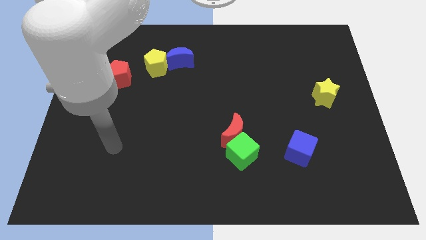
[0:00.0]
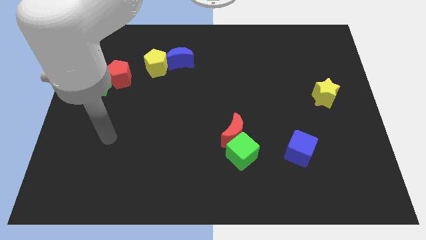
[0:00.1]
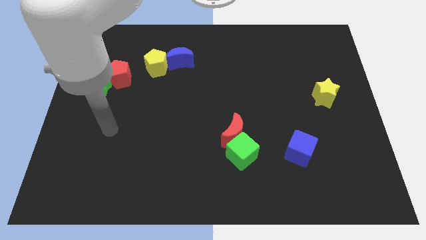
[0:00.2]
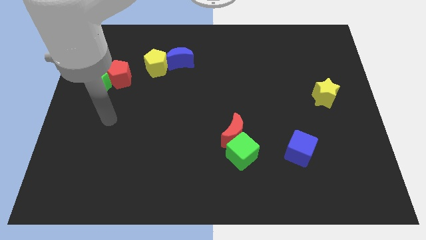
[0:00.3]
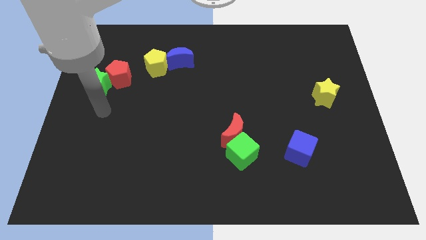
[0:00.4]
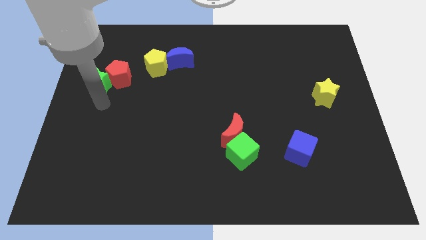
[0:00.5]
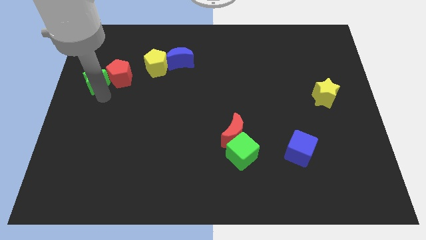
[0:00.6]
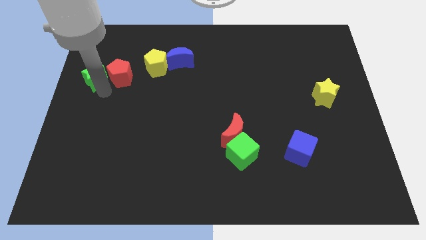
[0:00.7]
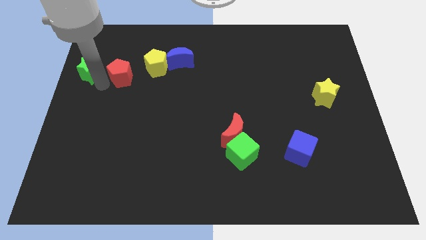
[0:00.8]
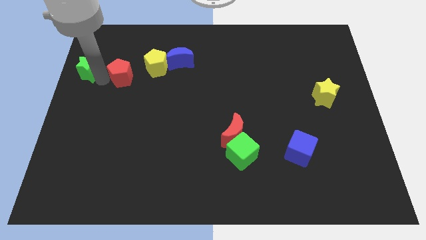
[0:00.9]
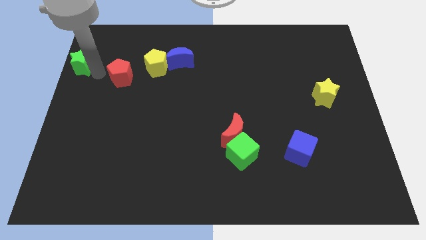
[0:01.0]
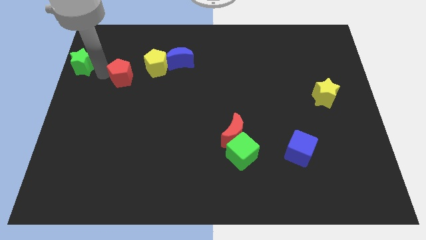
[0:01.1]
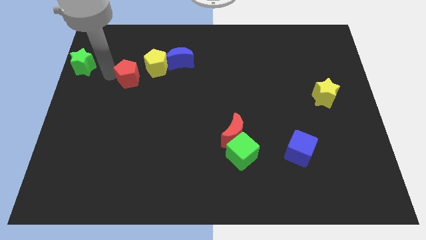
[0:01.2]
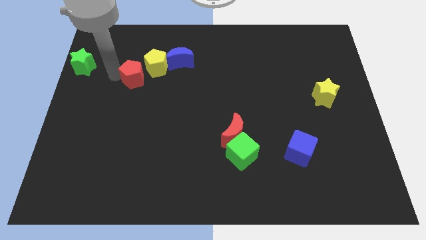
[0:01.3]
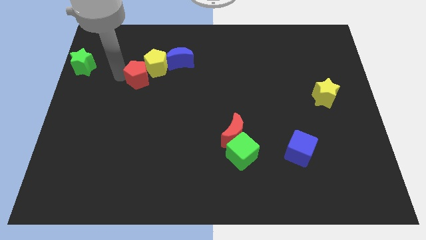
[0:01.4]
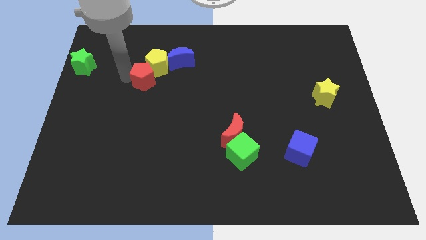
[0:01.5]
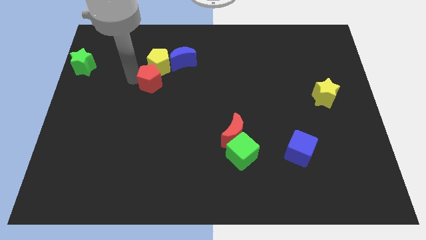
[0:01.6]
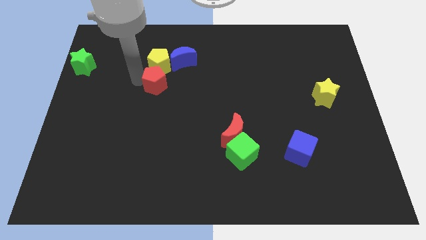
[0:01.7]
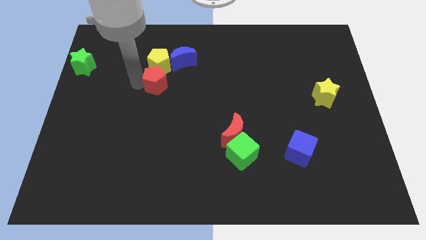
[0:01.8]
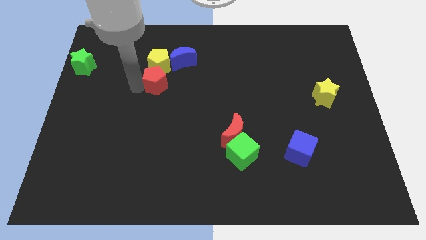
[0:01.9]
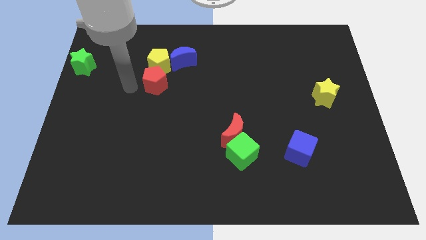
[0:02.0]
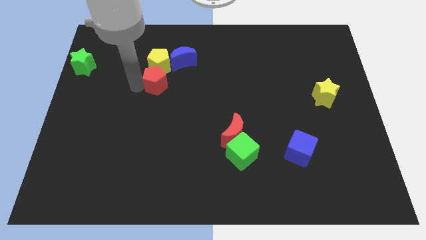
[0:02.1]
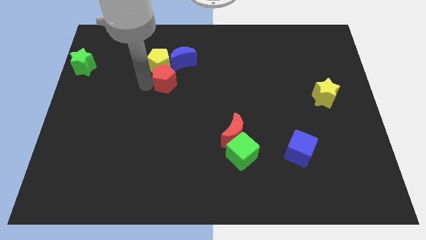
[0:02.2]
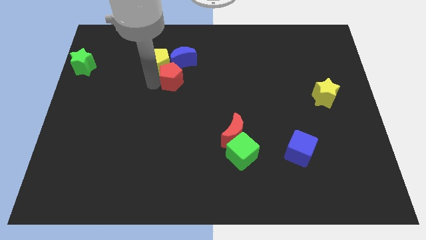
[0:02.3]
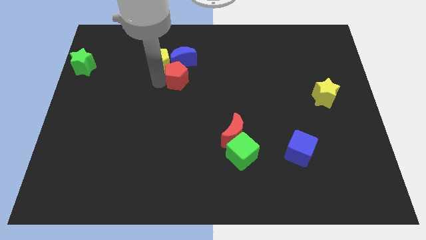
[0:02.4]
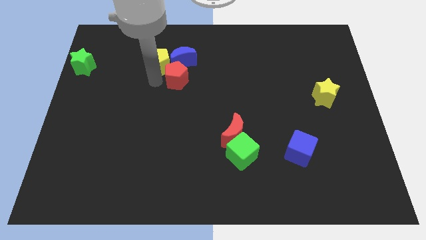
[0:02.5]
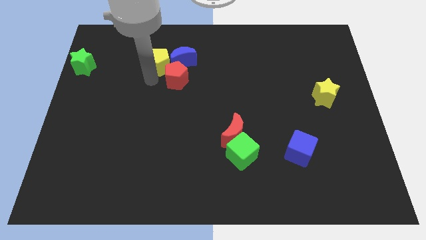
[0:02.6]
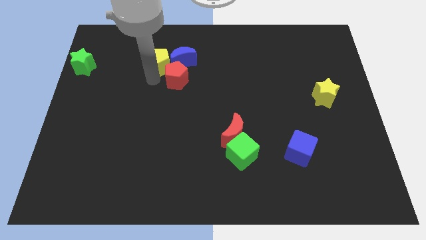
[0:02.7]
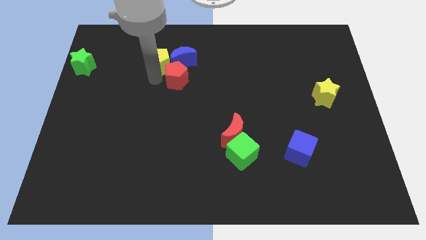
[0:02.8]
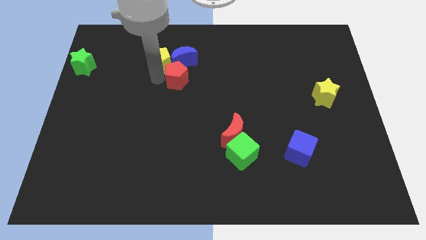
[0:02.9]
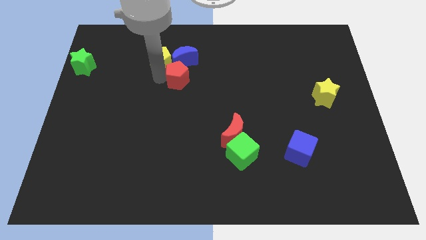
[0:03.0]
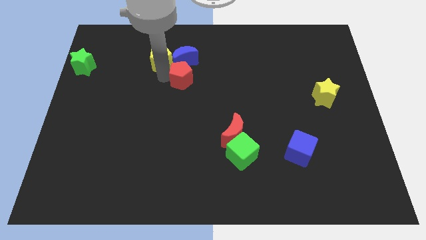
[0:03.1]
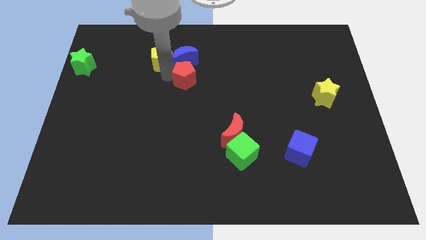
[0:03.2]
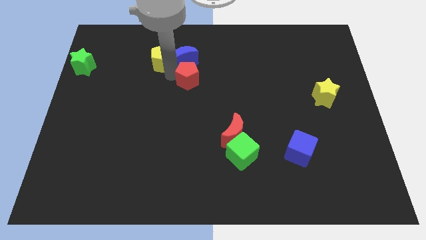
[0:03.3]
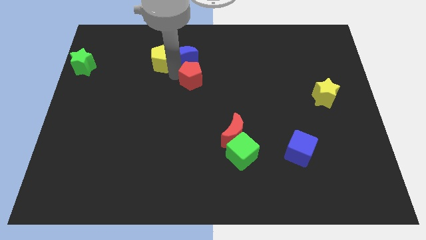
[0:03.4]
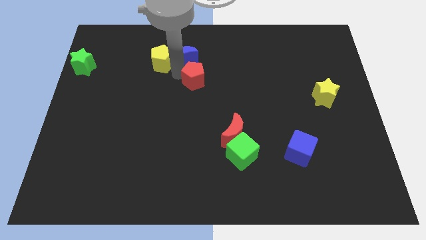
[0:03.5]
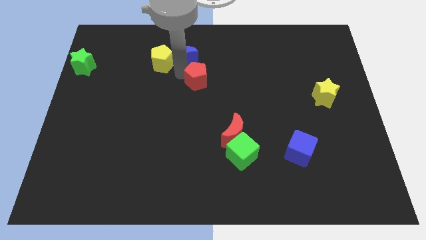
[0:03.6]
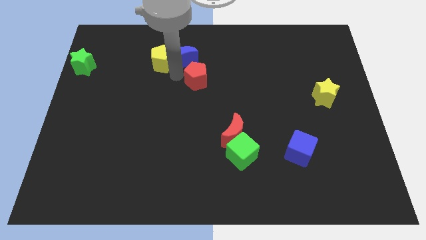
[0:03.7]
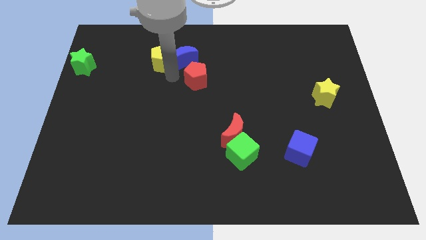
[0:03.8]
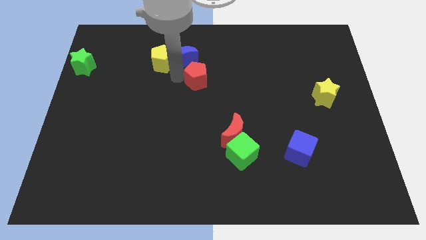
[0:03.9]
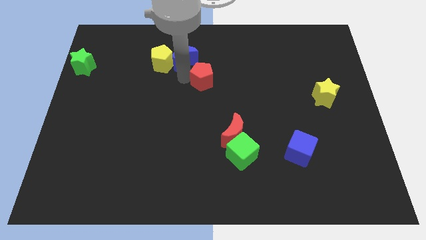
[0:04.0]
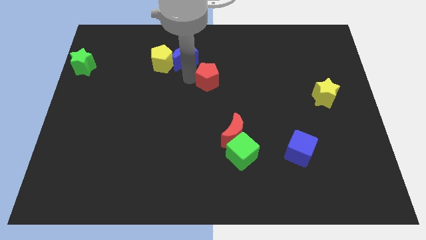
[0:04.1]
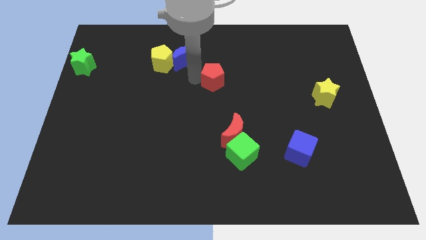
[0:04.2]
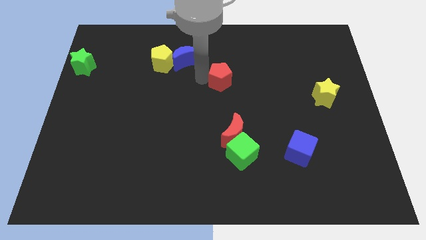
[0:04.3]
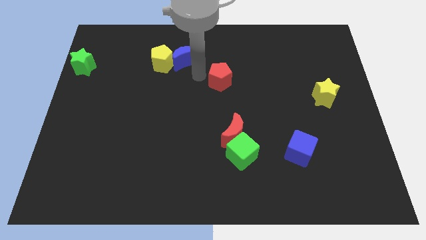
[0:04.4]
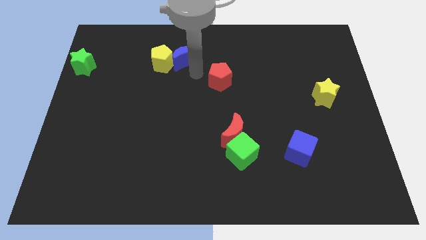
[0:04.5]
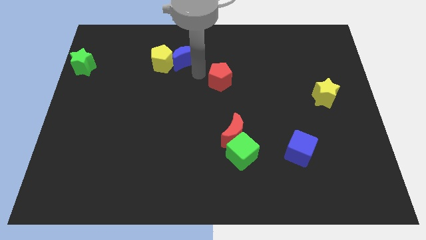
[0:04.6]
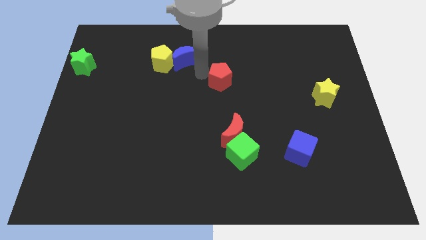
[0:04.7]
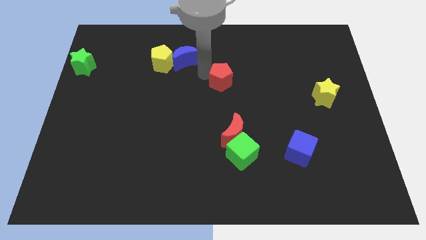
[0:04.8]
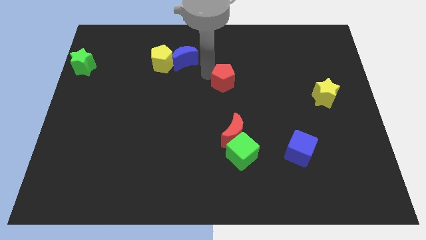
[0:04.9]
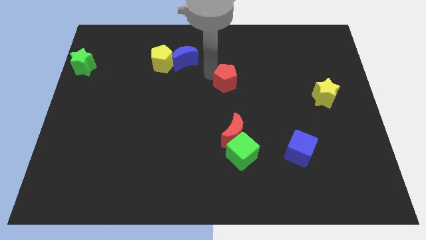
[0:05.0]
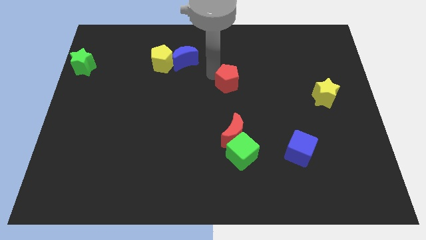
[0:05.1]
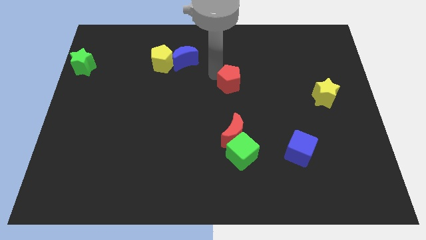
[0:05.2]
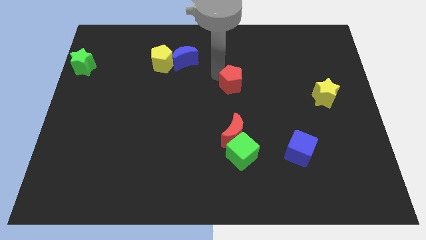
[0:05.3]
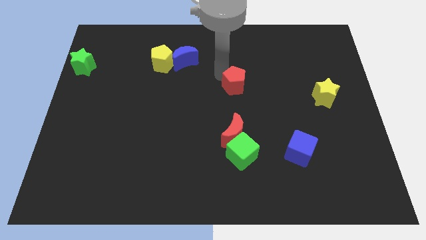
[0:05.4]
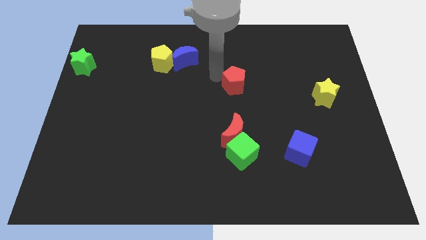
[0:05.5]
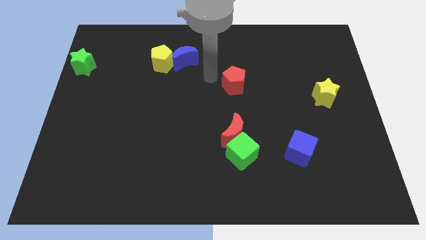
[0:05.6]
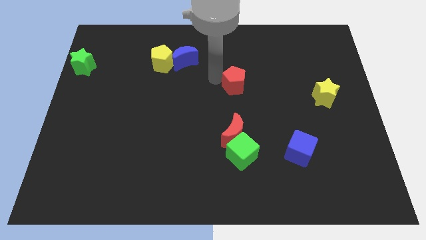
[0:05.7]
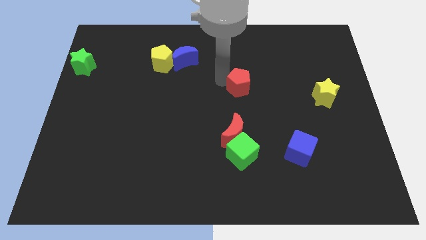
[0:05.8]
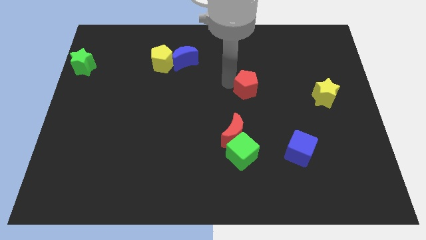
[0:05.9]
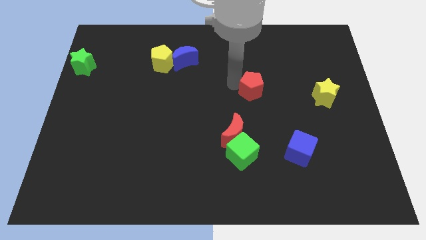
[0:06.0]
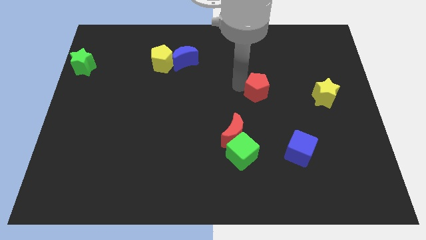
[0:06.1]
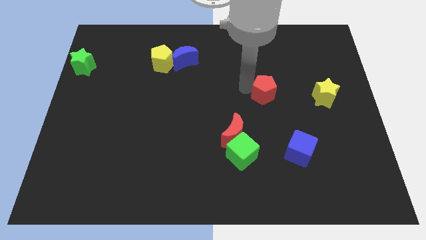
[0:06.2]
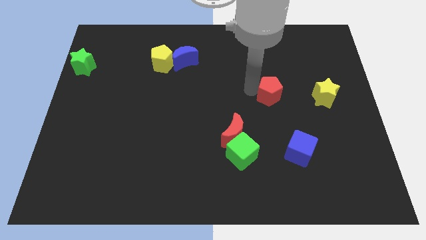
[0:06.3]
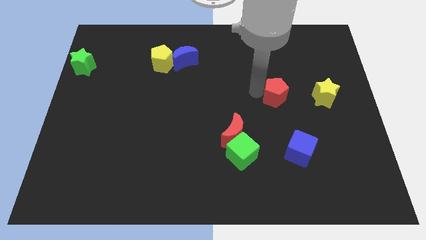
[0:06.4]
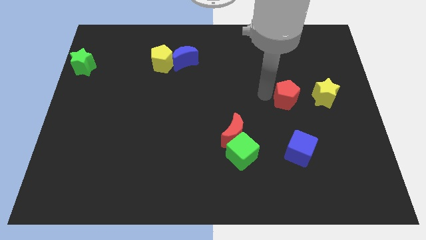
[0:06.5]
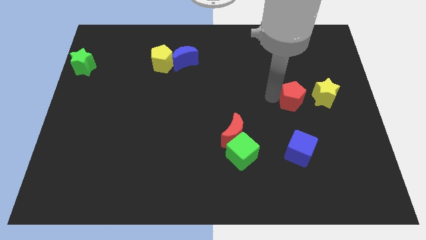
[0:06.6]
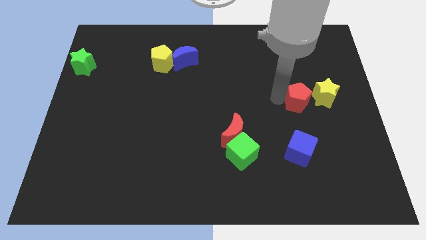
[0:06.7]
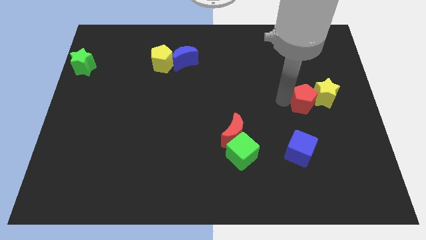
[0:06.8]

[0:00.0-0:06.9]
push the red pentagon close to the yellow star

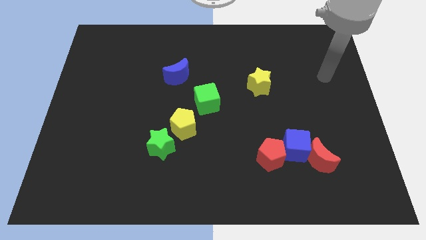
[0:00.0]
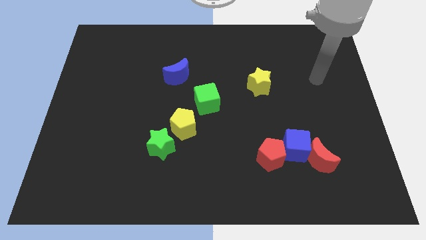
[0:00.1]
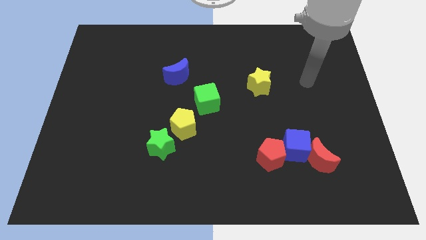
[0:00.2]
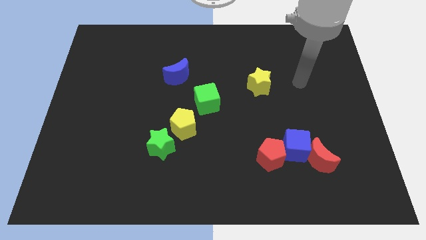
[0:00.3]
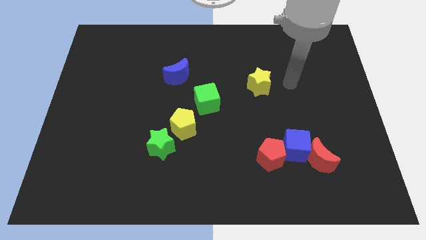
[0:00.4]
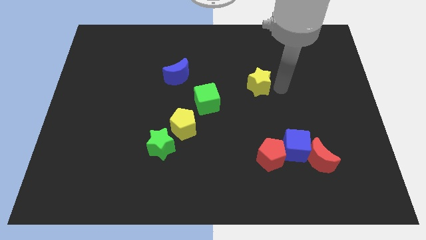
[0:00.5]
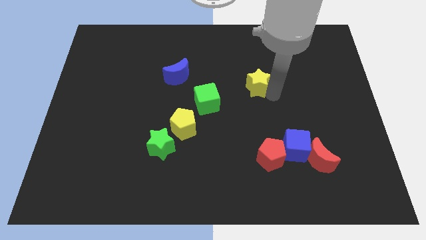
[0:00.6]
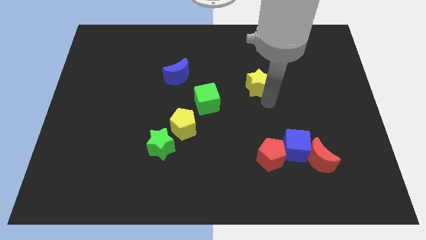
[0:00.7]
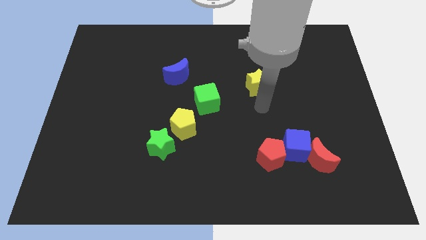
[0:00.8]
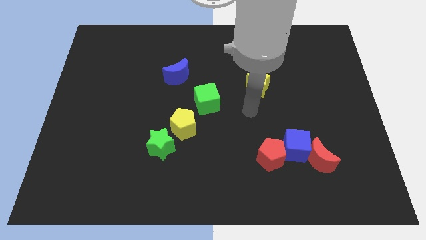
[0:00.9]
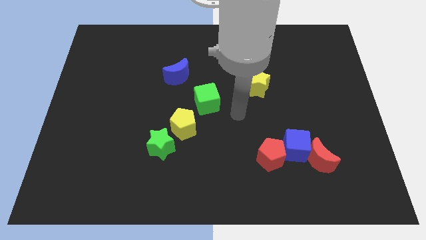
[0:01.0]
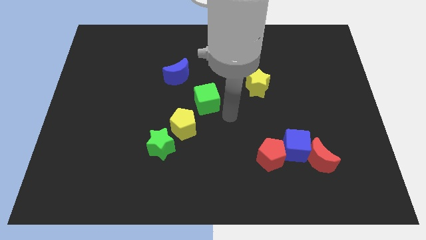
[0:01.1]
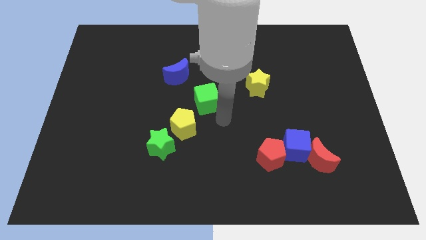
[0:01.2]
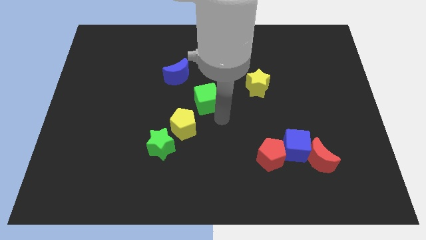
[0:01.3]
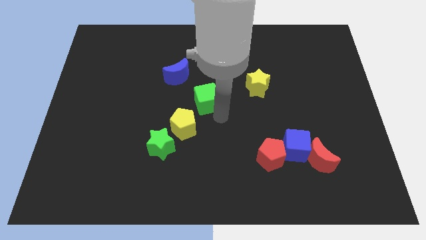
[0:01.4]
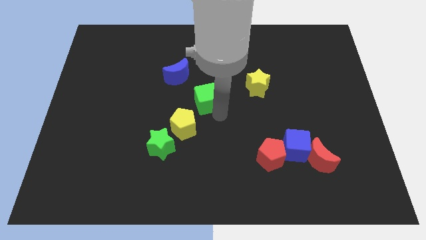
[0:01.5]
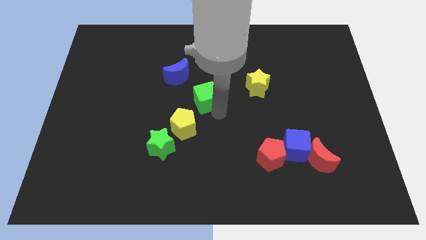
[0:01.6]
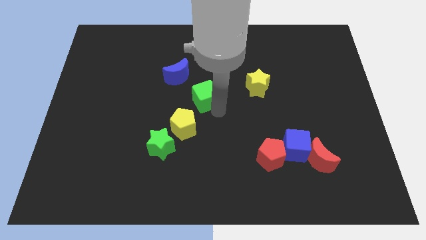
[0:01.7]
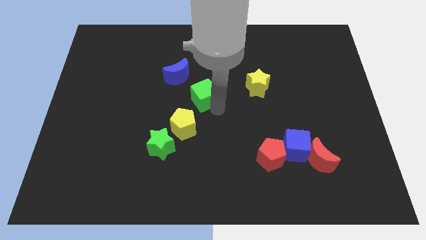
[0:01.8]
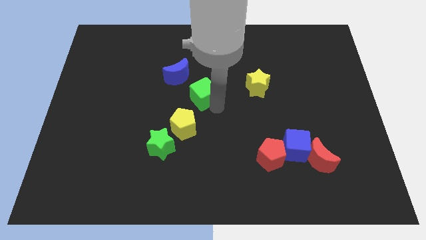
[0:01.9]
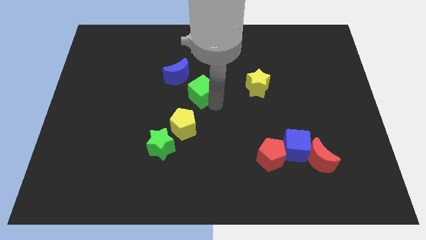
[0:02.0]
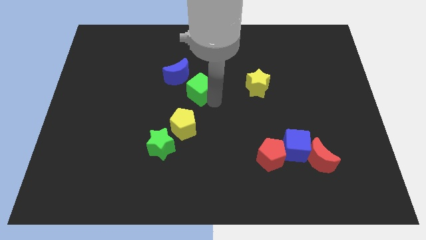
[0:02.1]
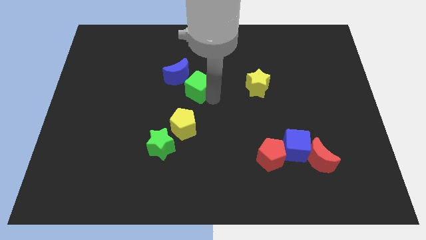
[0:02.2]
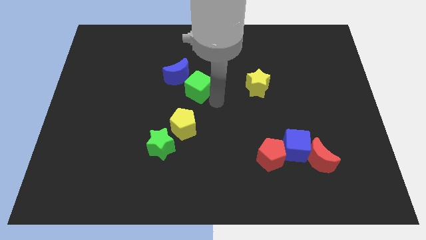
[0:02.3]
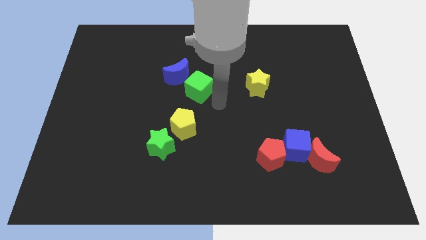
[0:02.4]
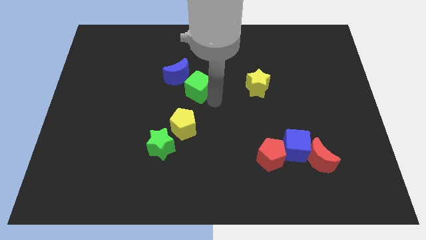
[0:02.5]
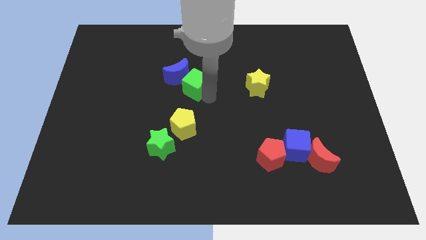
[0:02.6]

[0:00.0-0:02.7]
slide the green cube towards the blue moon
